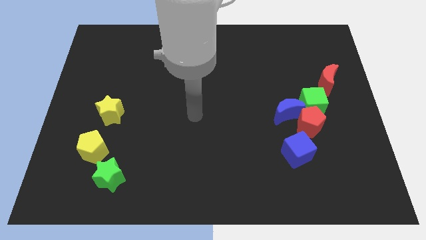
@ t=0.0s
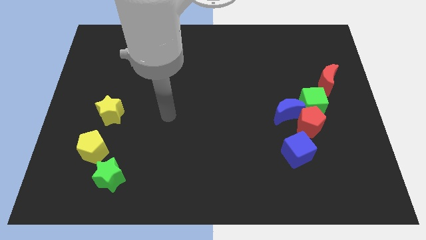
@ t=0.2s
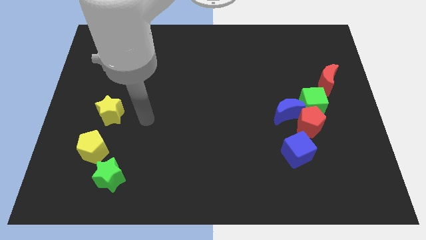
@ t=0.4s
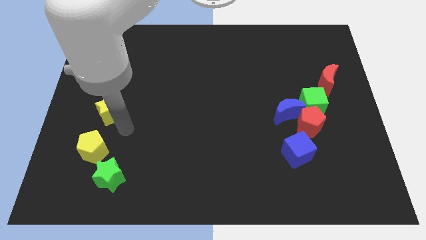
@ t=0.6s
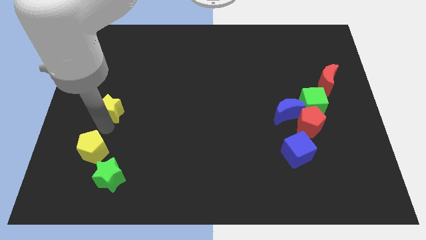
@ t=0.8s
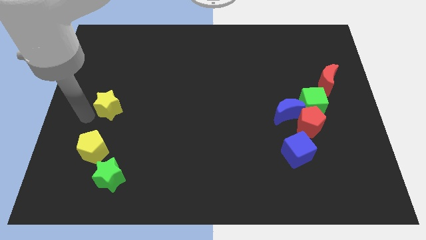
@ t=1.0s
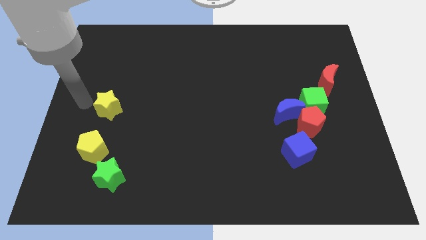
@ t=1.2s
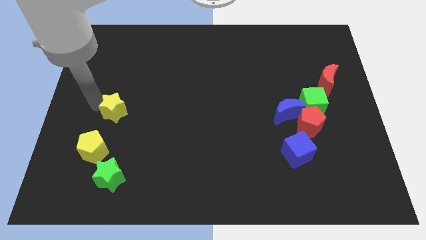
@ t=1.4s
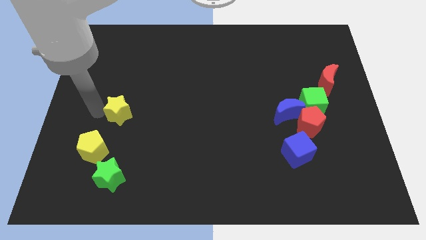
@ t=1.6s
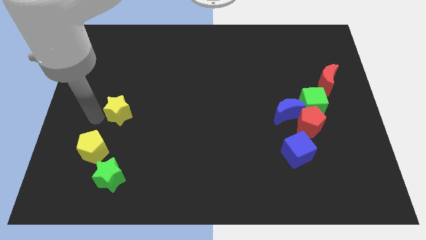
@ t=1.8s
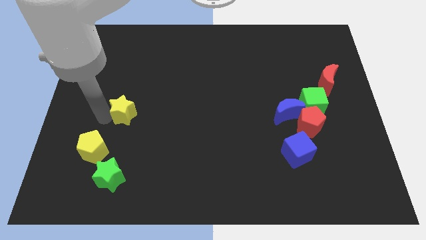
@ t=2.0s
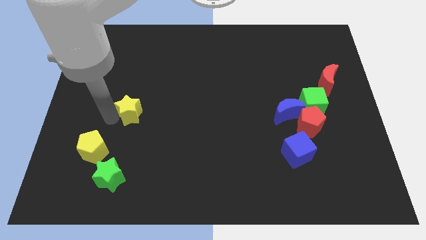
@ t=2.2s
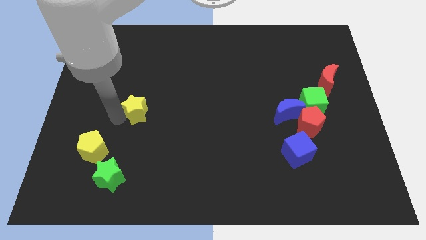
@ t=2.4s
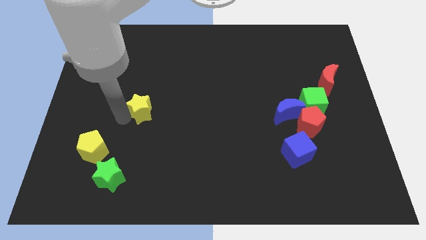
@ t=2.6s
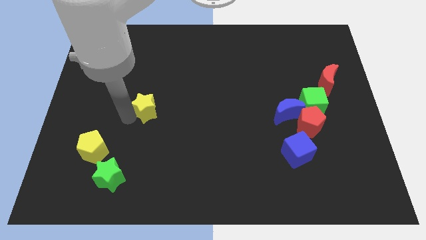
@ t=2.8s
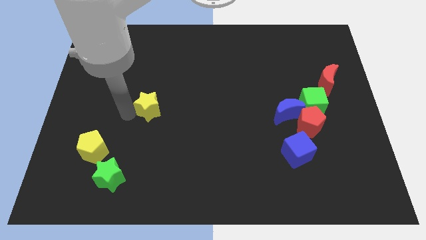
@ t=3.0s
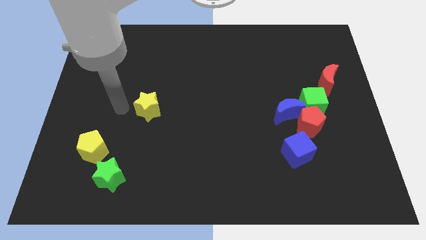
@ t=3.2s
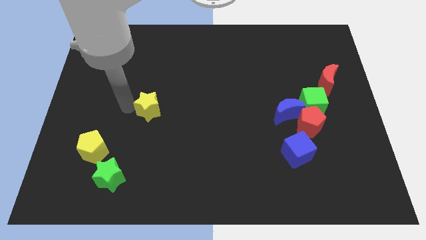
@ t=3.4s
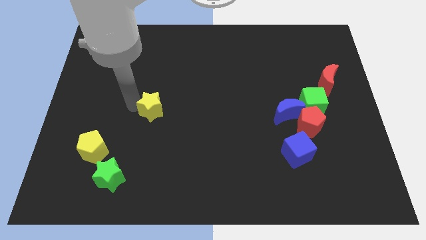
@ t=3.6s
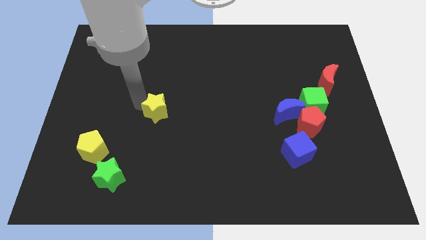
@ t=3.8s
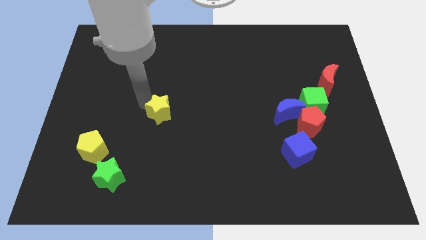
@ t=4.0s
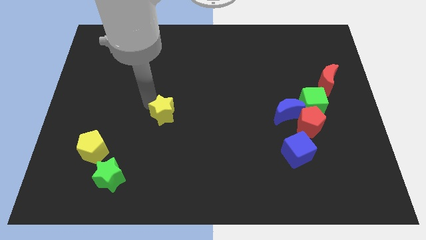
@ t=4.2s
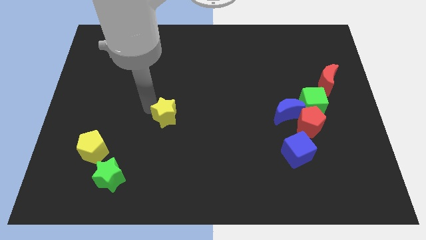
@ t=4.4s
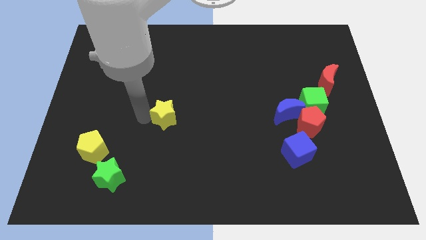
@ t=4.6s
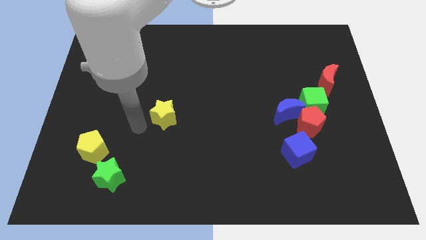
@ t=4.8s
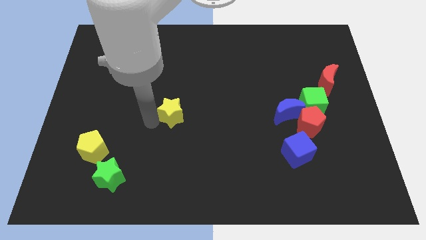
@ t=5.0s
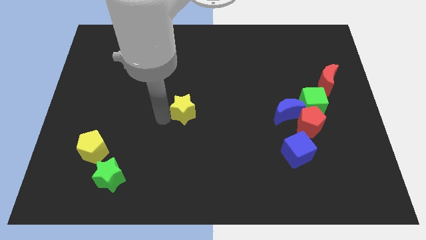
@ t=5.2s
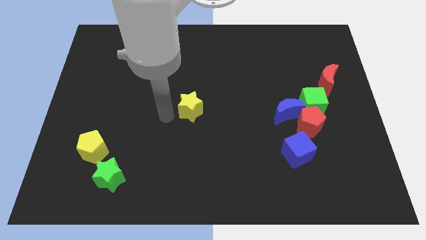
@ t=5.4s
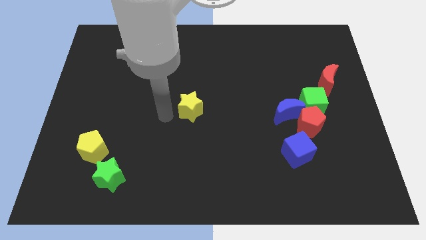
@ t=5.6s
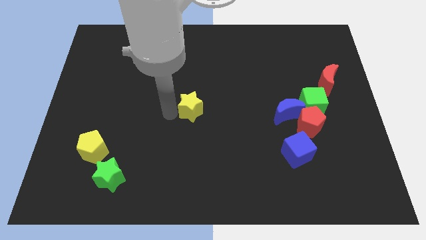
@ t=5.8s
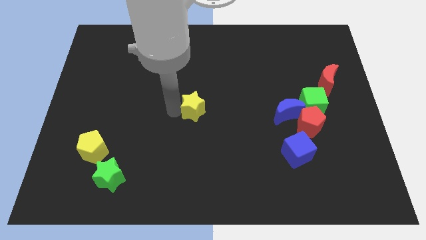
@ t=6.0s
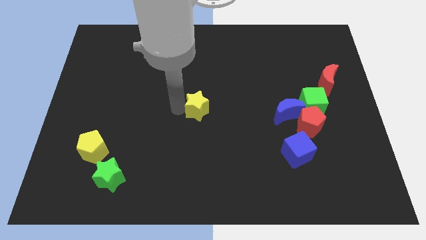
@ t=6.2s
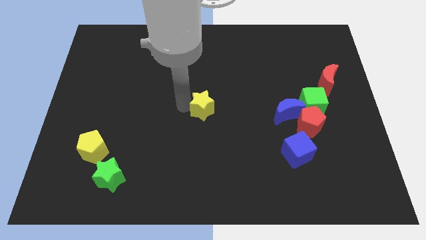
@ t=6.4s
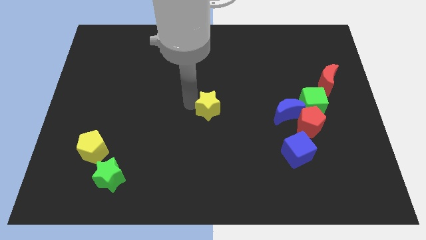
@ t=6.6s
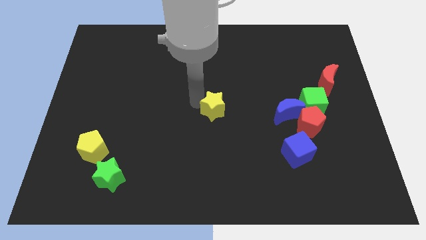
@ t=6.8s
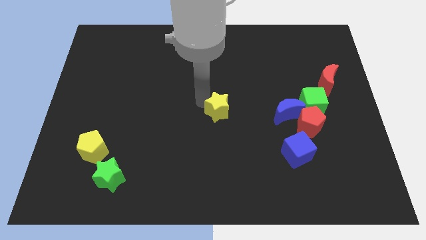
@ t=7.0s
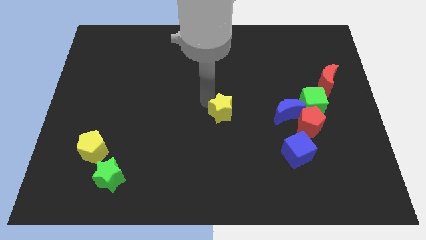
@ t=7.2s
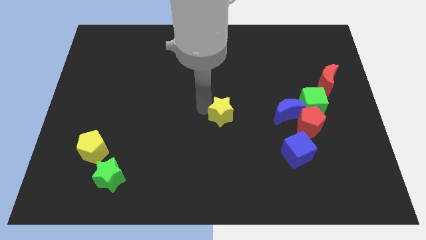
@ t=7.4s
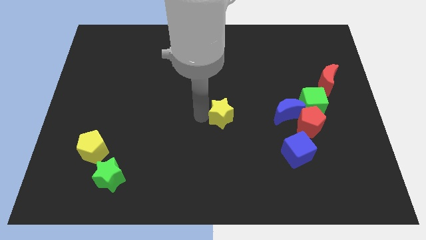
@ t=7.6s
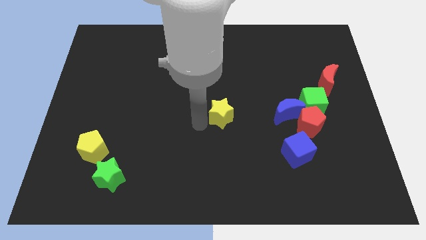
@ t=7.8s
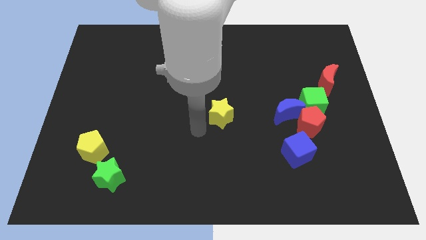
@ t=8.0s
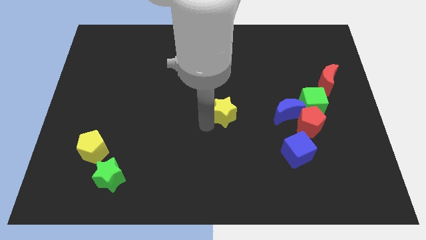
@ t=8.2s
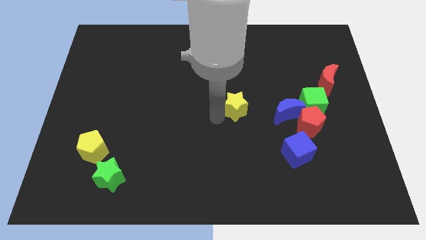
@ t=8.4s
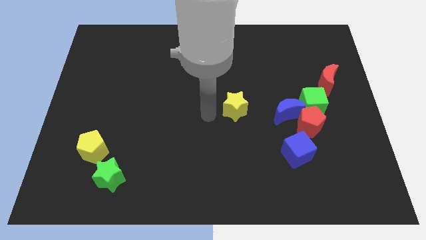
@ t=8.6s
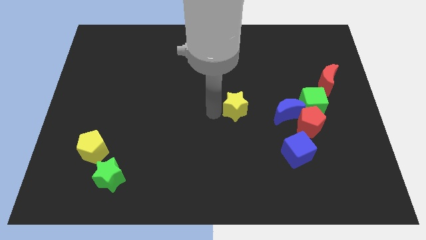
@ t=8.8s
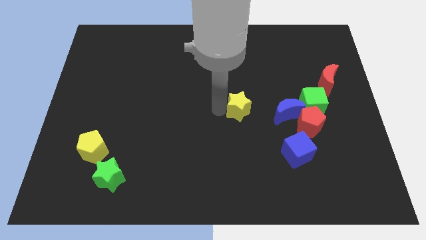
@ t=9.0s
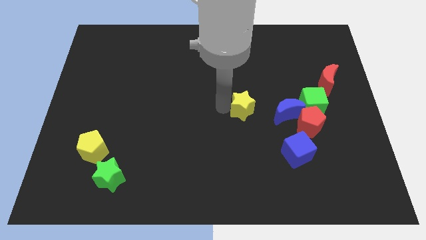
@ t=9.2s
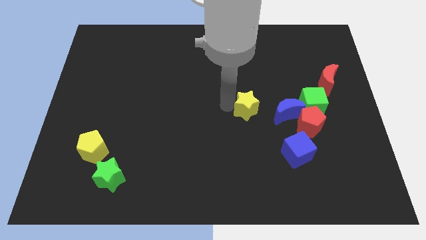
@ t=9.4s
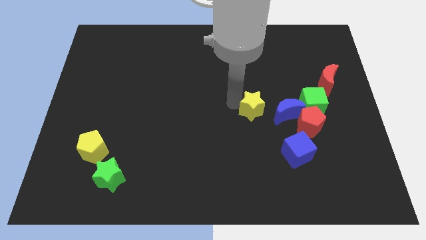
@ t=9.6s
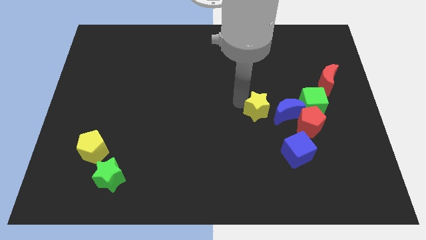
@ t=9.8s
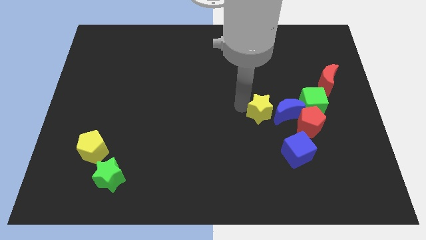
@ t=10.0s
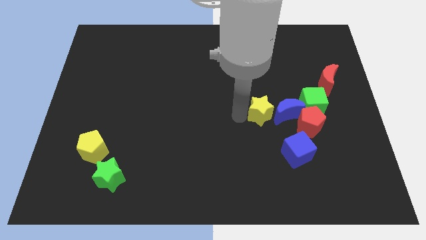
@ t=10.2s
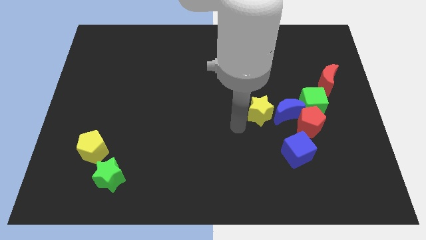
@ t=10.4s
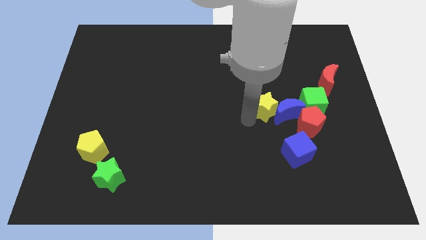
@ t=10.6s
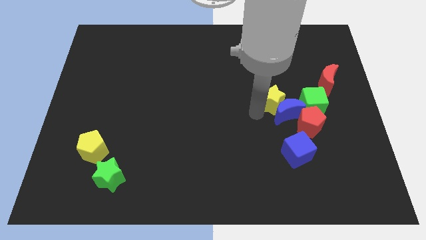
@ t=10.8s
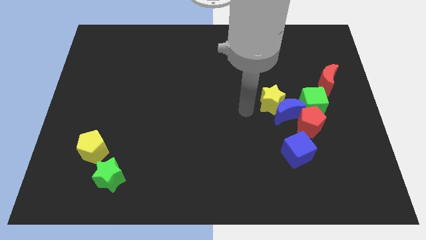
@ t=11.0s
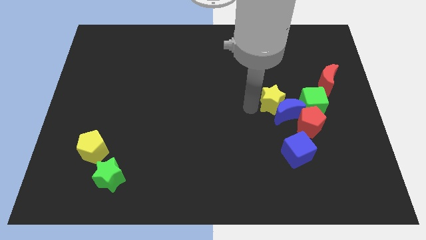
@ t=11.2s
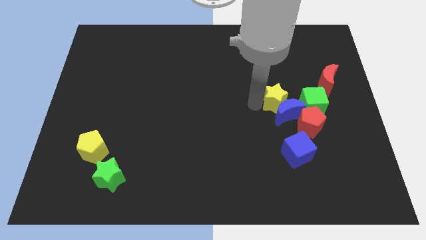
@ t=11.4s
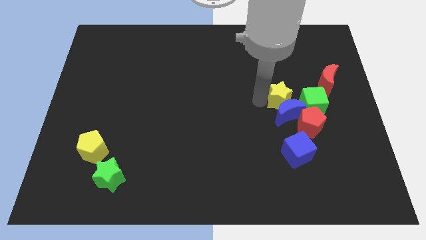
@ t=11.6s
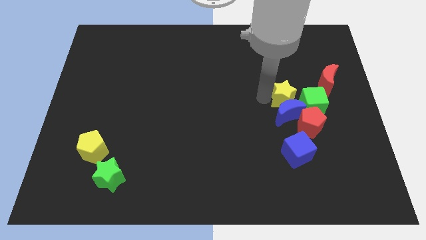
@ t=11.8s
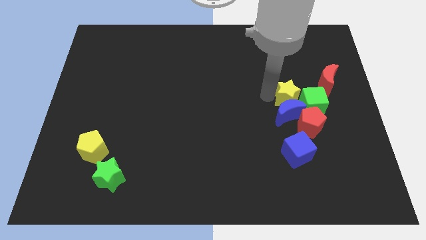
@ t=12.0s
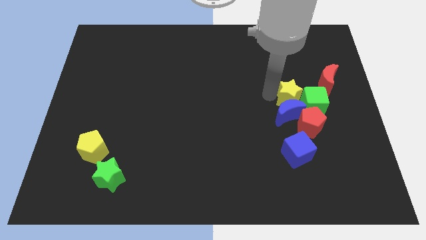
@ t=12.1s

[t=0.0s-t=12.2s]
put the yellow star towards the green cube

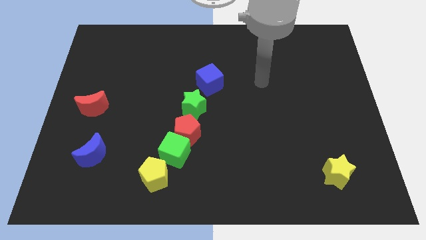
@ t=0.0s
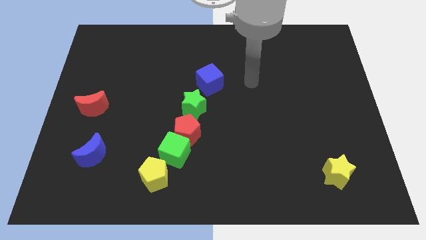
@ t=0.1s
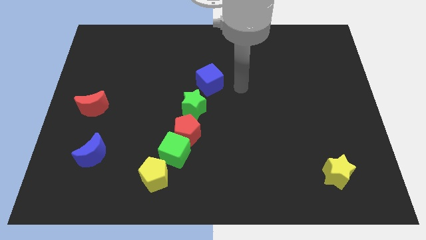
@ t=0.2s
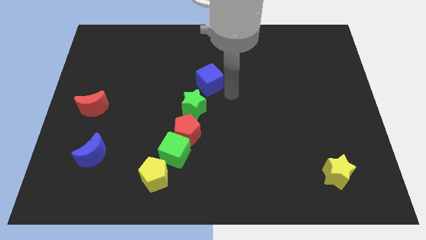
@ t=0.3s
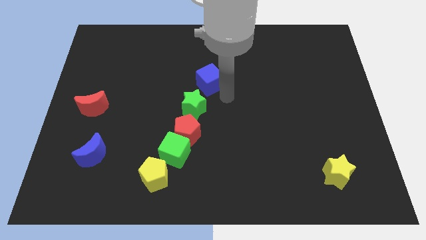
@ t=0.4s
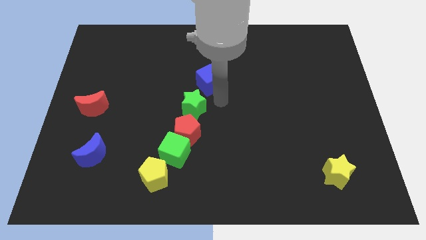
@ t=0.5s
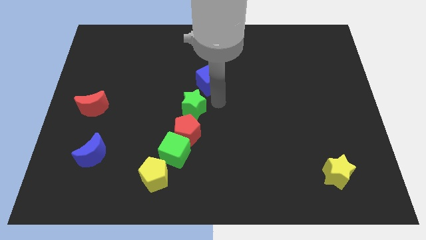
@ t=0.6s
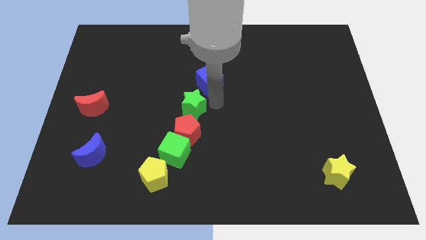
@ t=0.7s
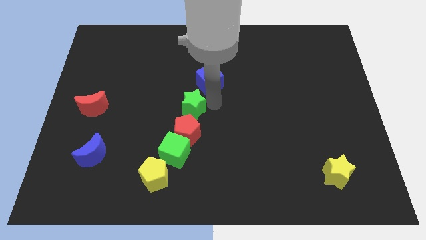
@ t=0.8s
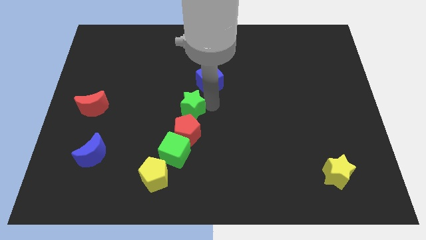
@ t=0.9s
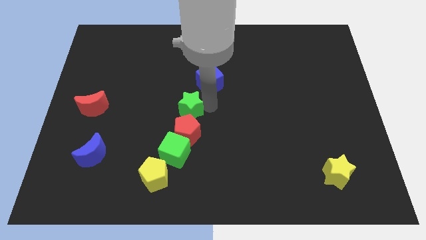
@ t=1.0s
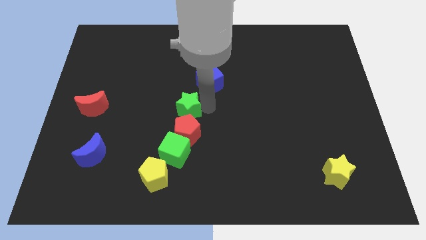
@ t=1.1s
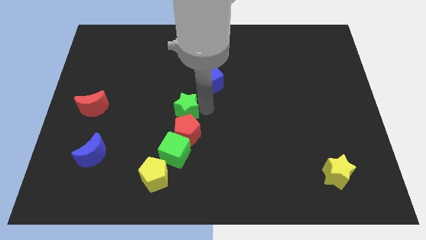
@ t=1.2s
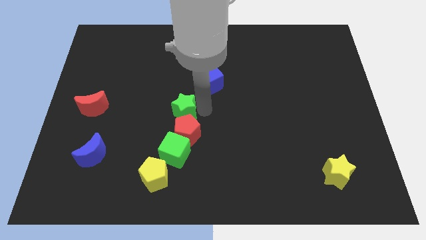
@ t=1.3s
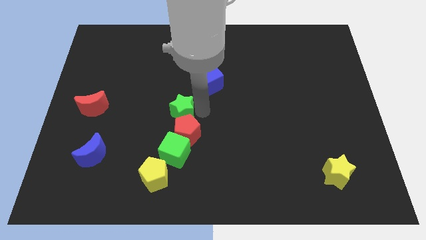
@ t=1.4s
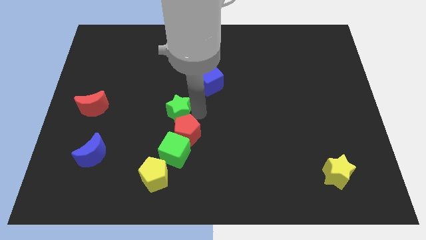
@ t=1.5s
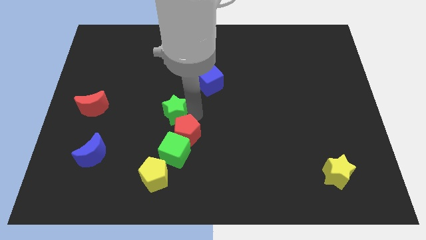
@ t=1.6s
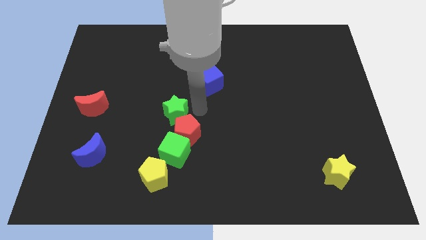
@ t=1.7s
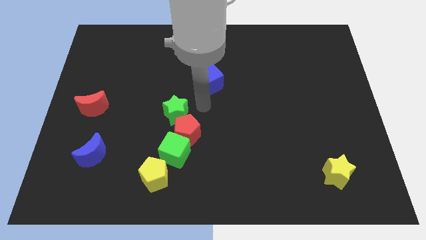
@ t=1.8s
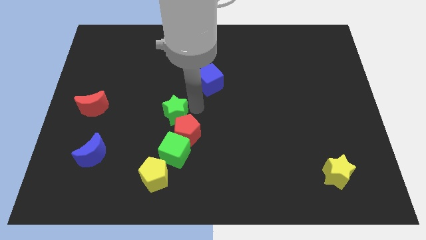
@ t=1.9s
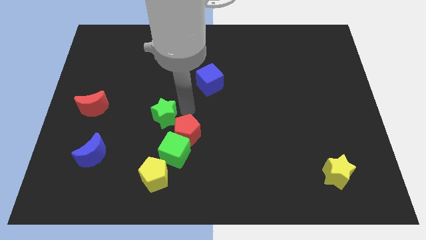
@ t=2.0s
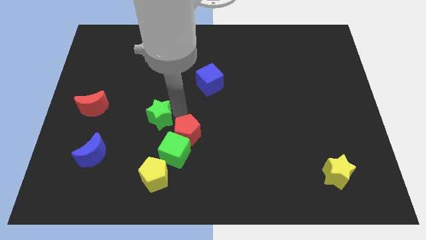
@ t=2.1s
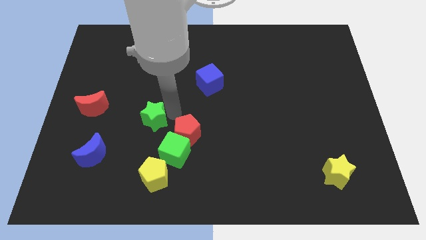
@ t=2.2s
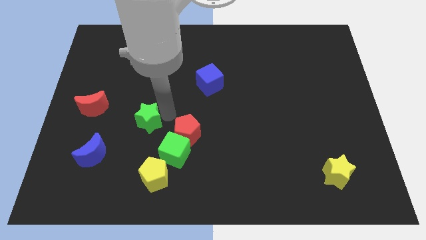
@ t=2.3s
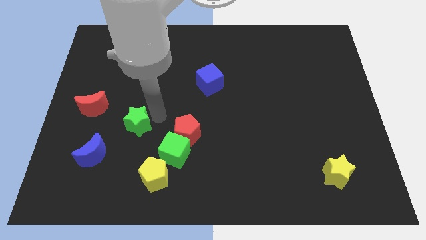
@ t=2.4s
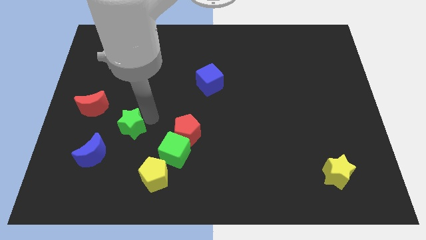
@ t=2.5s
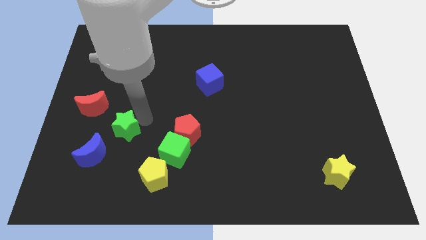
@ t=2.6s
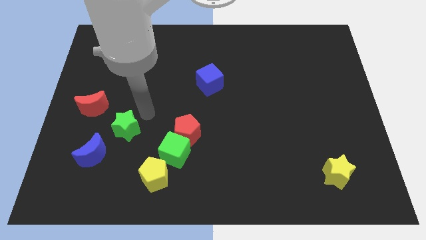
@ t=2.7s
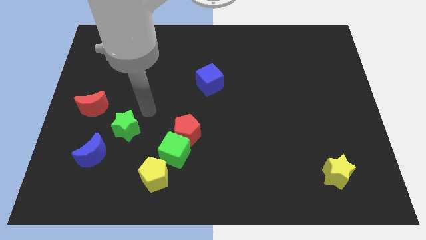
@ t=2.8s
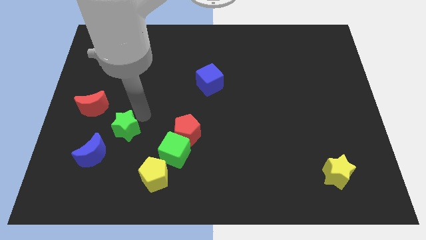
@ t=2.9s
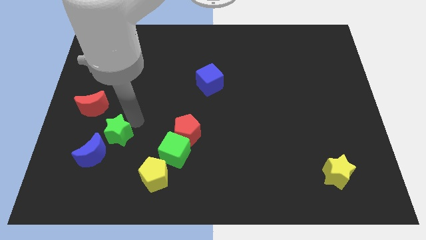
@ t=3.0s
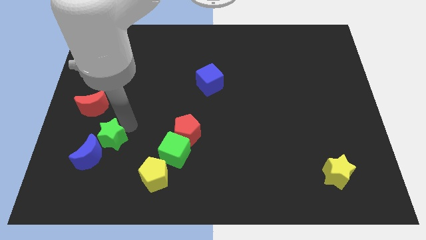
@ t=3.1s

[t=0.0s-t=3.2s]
move the green star towards the blue moon
